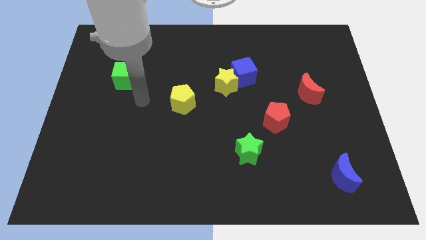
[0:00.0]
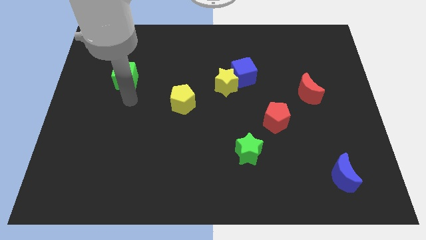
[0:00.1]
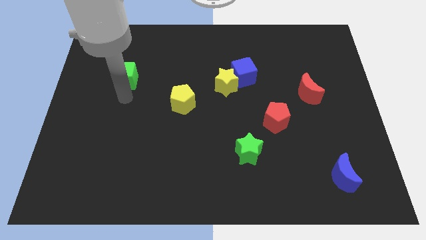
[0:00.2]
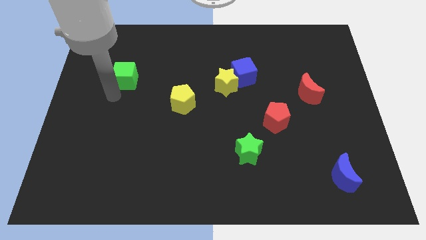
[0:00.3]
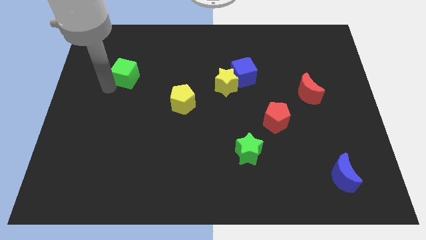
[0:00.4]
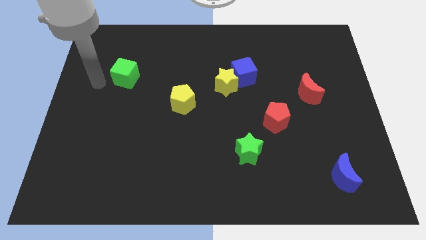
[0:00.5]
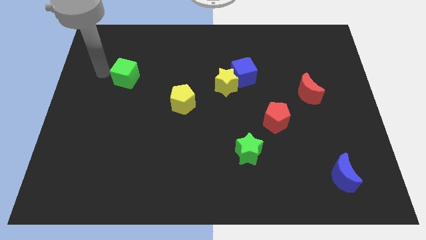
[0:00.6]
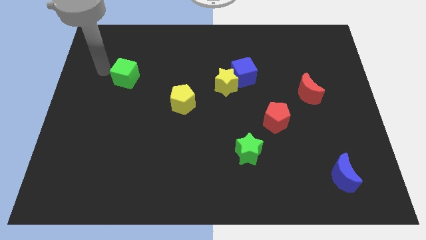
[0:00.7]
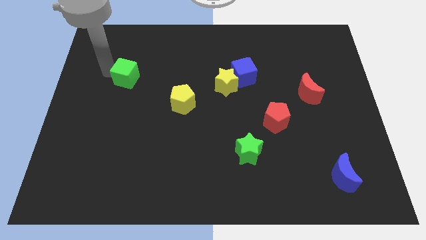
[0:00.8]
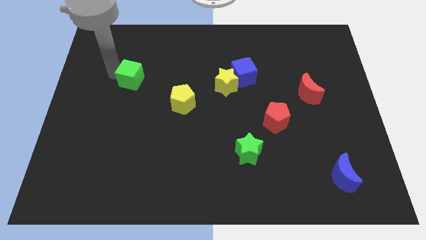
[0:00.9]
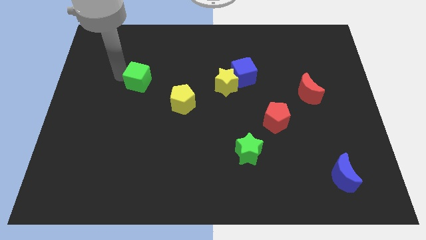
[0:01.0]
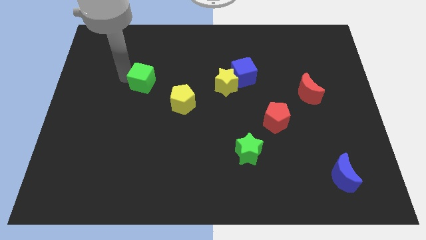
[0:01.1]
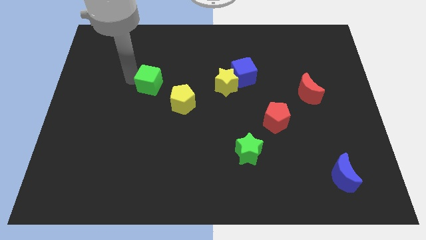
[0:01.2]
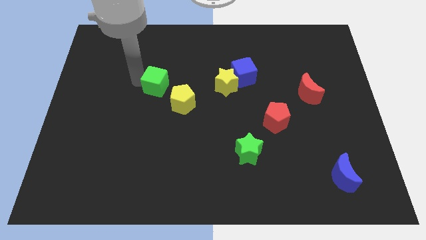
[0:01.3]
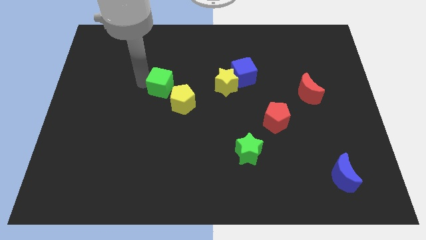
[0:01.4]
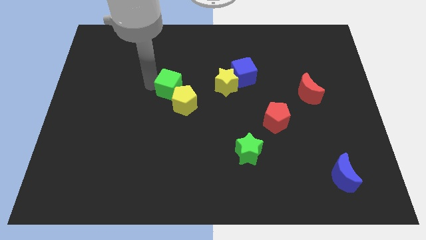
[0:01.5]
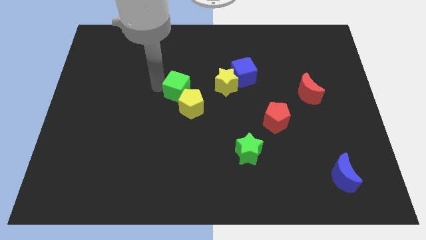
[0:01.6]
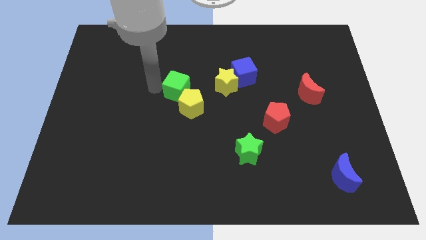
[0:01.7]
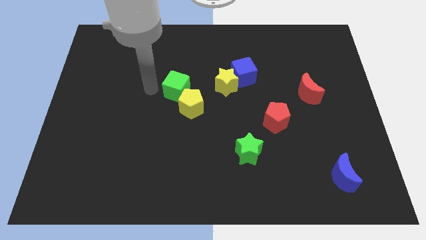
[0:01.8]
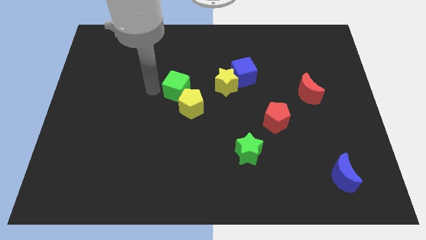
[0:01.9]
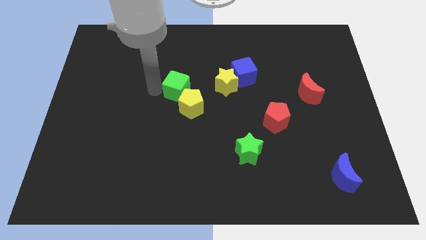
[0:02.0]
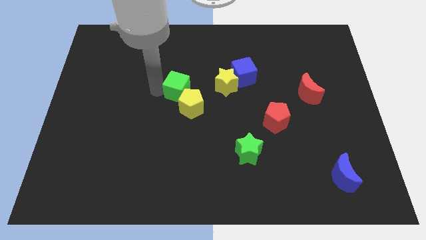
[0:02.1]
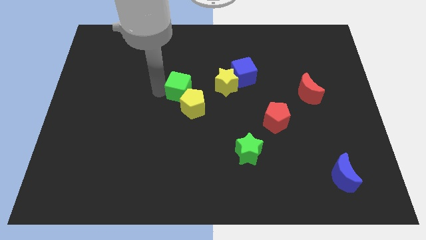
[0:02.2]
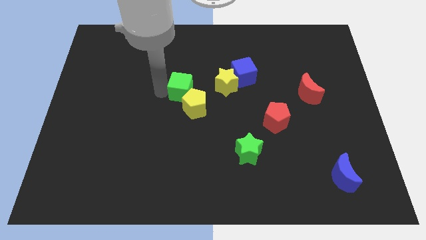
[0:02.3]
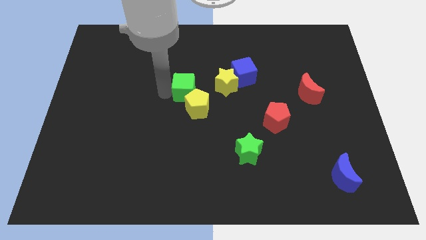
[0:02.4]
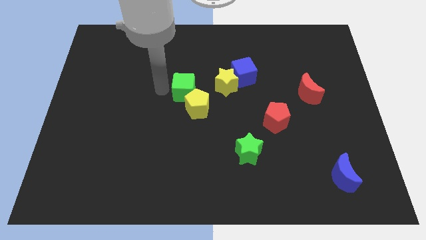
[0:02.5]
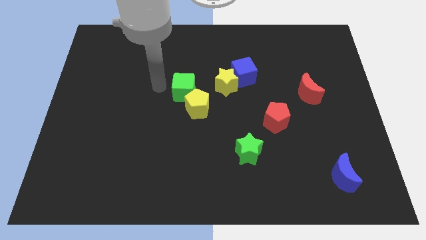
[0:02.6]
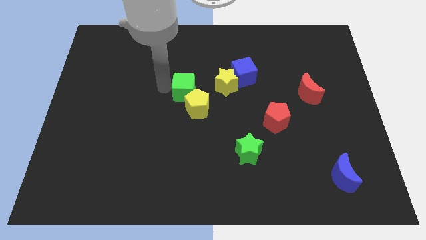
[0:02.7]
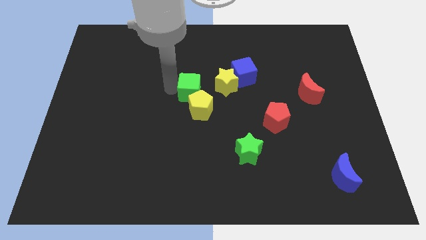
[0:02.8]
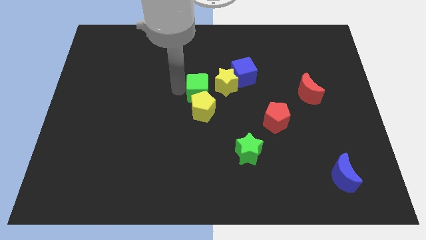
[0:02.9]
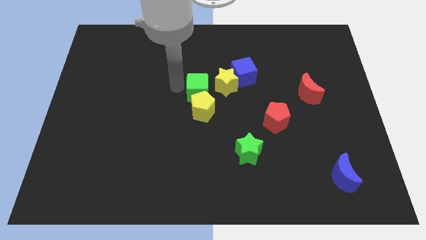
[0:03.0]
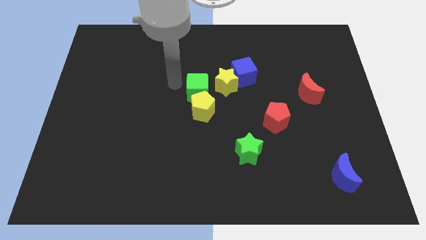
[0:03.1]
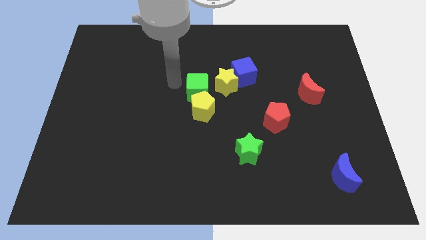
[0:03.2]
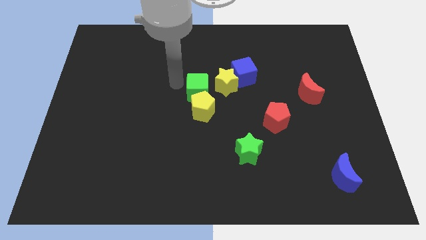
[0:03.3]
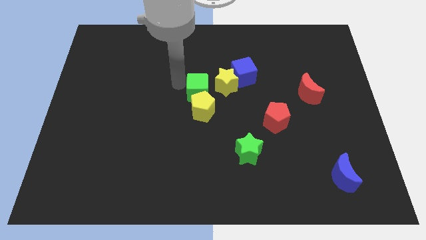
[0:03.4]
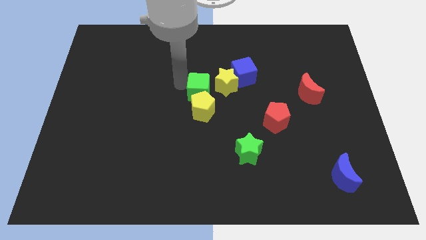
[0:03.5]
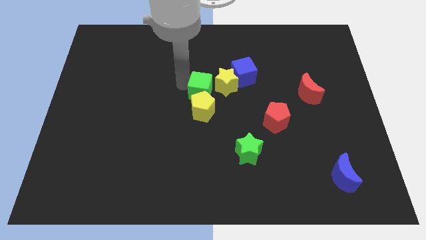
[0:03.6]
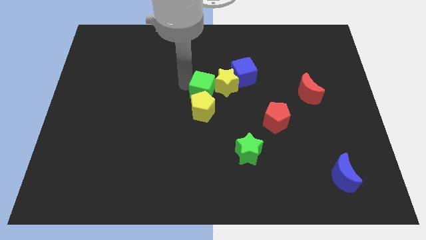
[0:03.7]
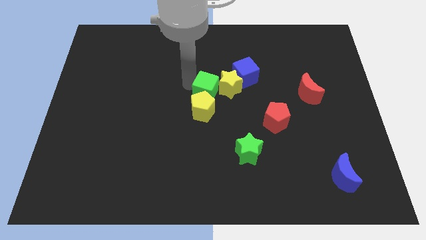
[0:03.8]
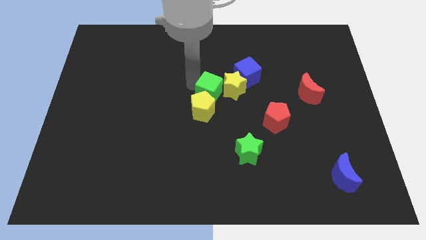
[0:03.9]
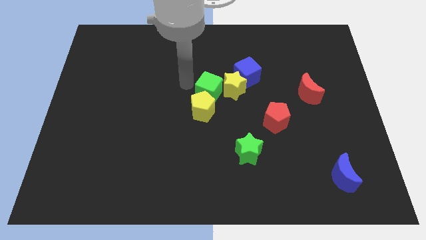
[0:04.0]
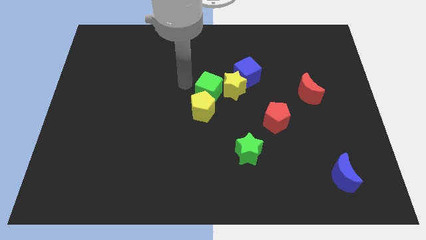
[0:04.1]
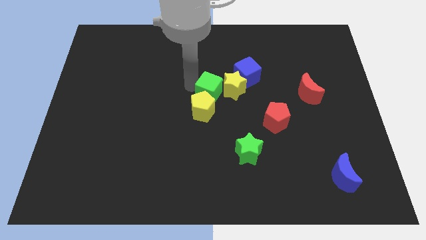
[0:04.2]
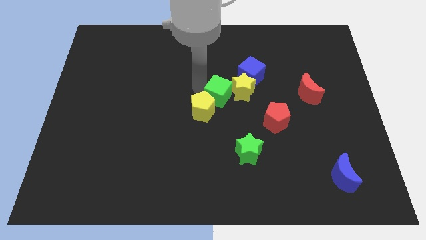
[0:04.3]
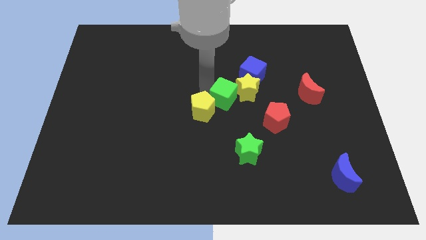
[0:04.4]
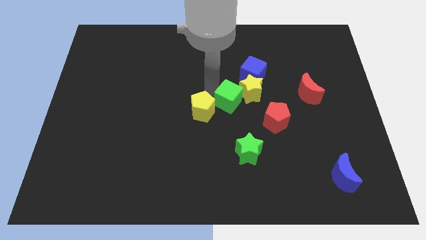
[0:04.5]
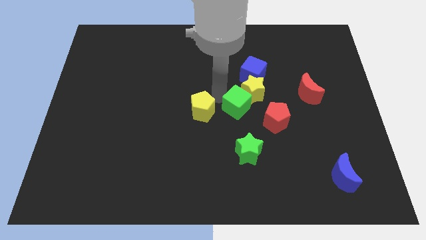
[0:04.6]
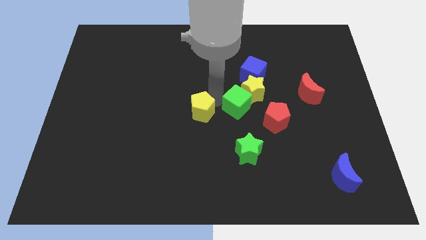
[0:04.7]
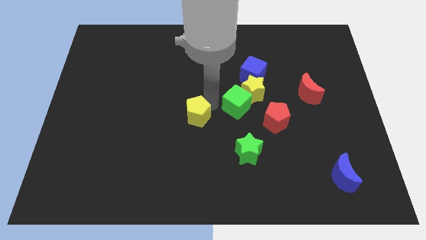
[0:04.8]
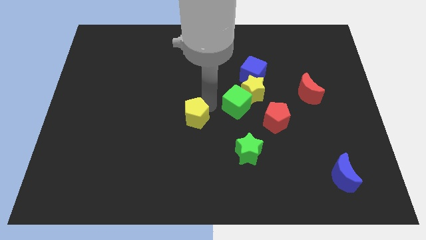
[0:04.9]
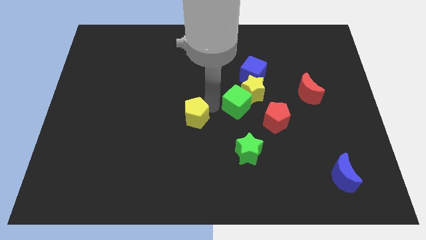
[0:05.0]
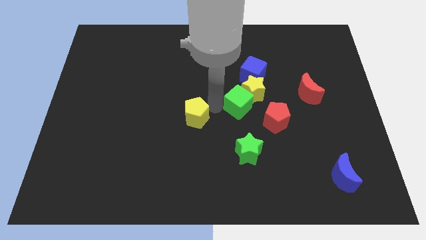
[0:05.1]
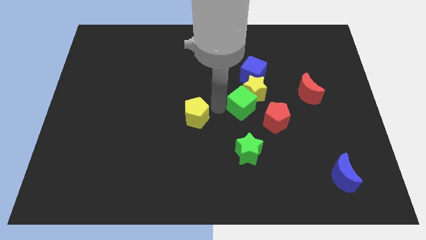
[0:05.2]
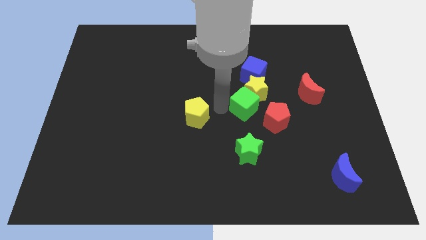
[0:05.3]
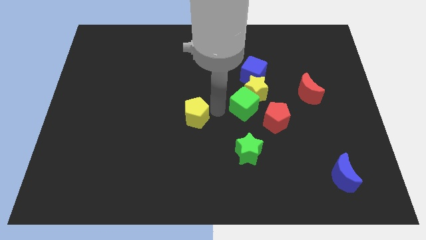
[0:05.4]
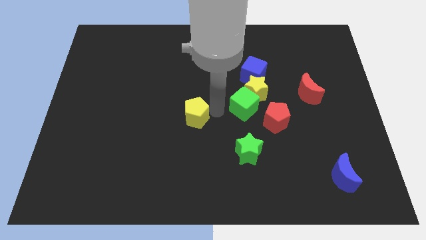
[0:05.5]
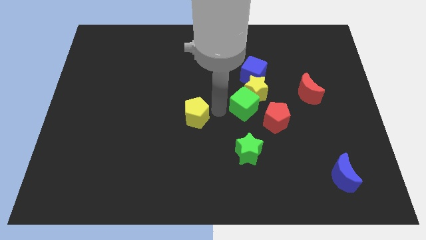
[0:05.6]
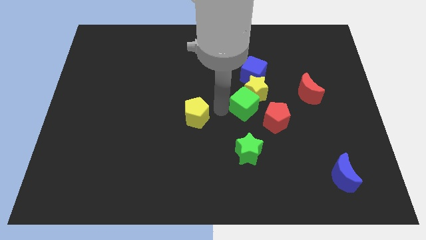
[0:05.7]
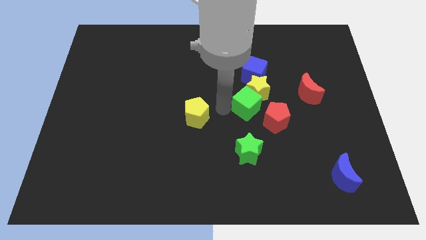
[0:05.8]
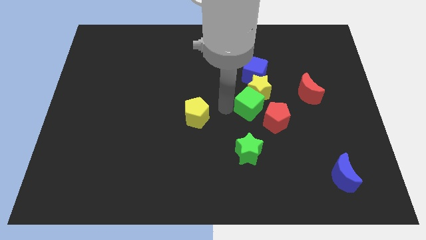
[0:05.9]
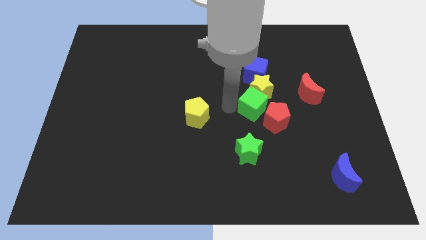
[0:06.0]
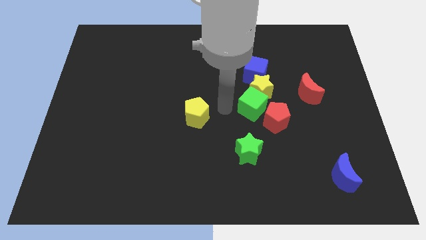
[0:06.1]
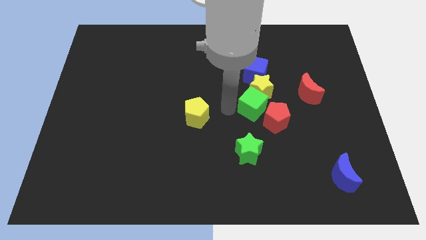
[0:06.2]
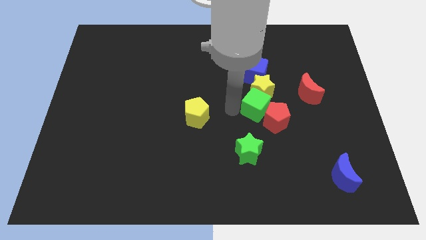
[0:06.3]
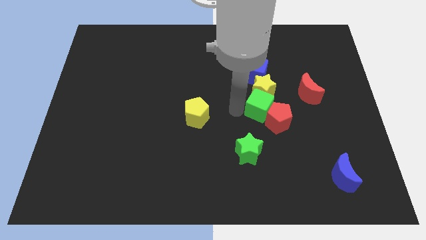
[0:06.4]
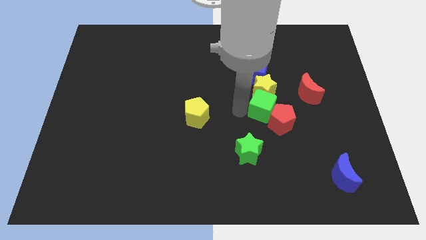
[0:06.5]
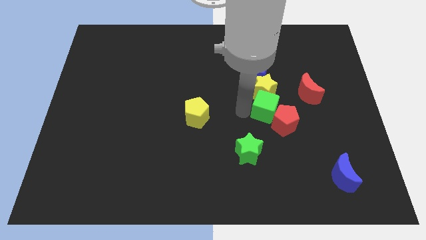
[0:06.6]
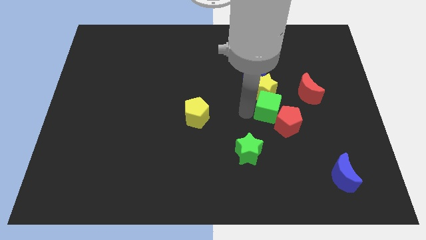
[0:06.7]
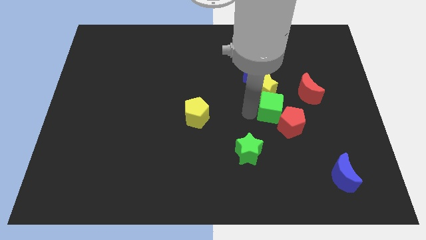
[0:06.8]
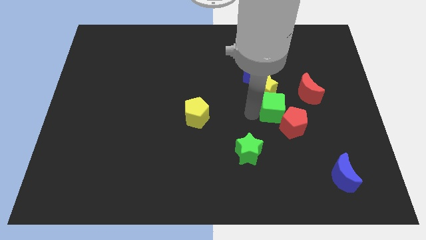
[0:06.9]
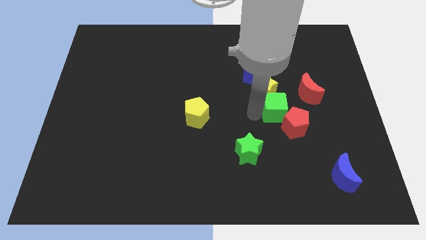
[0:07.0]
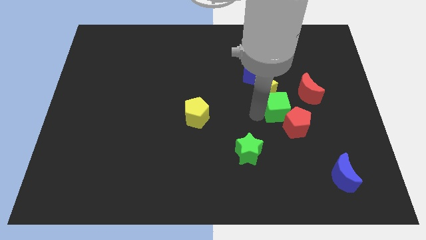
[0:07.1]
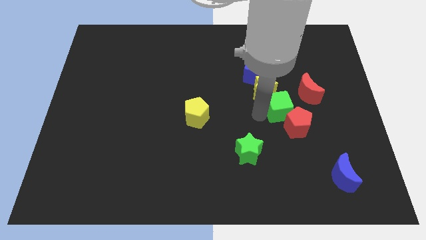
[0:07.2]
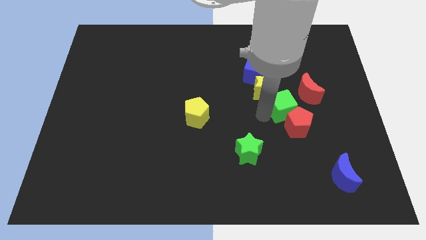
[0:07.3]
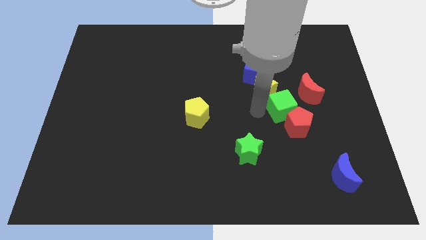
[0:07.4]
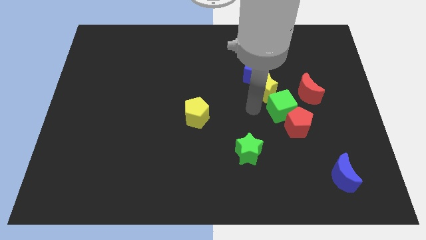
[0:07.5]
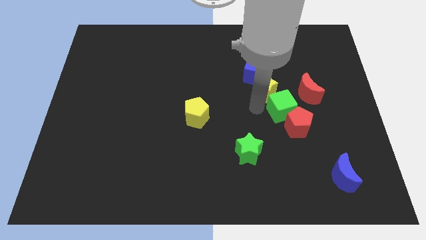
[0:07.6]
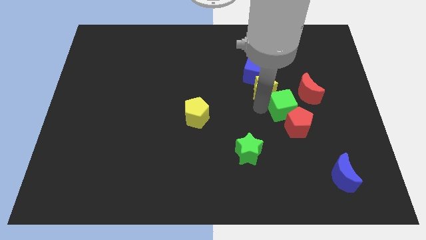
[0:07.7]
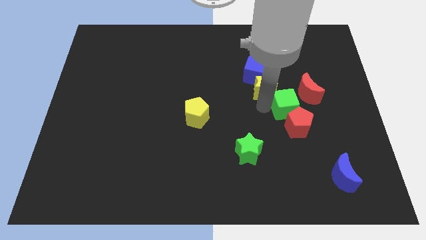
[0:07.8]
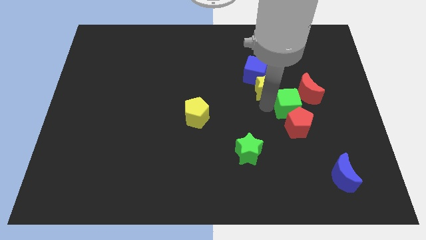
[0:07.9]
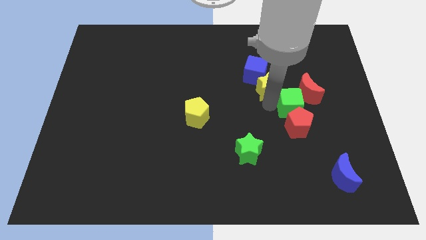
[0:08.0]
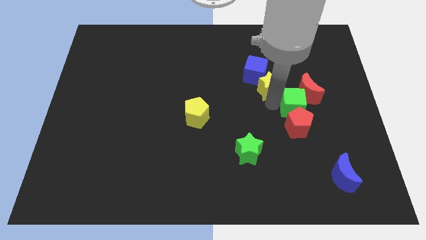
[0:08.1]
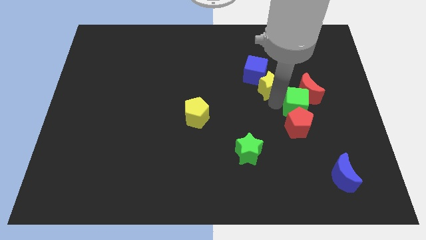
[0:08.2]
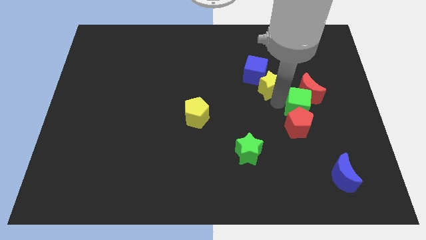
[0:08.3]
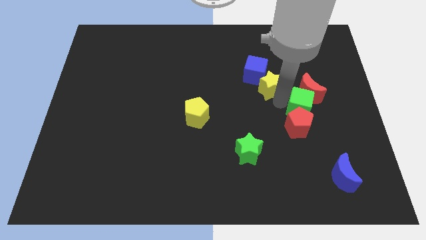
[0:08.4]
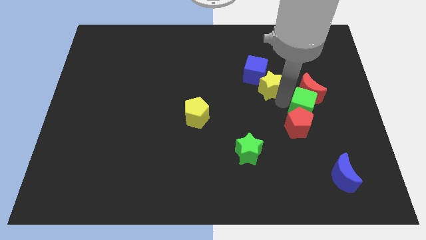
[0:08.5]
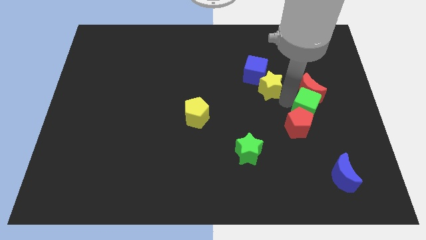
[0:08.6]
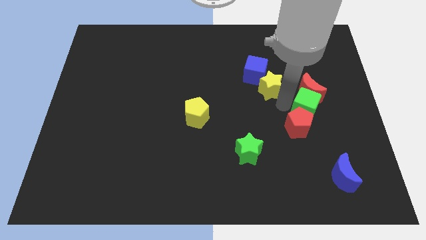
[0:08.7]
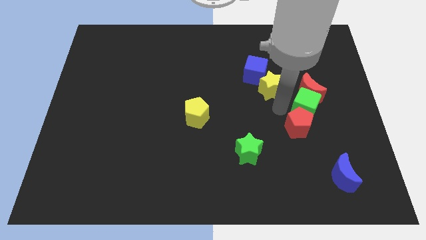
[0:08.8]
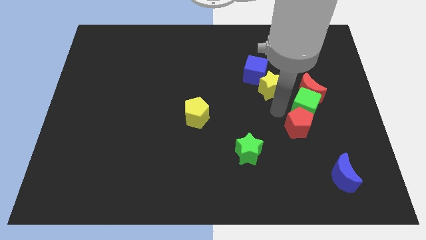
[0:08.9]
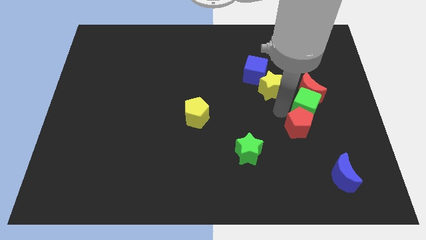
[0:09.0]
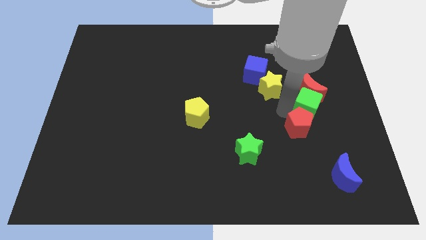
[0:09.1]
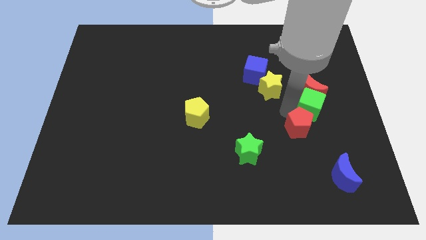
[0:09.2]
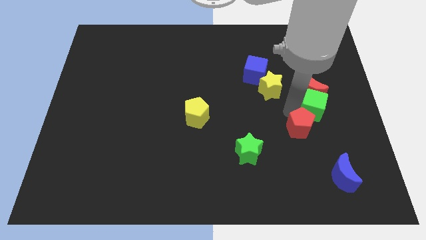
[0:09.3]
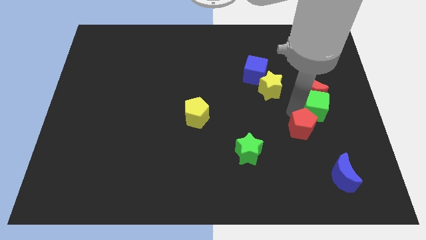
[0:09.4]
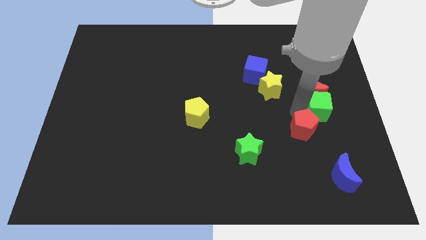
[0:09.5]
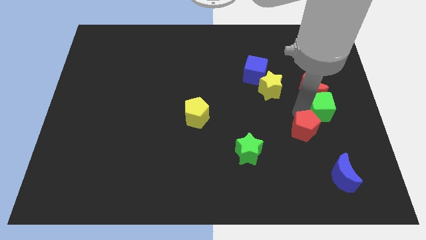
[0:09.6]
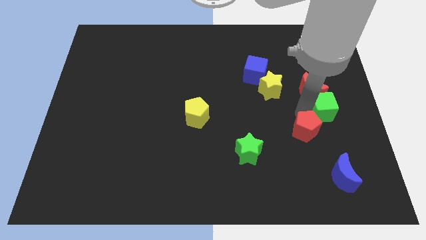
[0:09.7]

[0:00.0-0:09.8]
push the green cube to the right side
